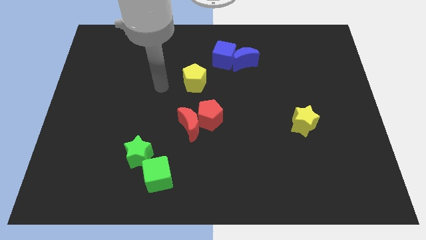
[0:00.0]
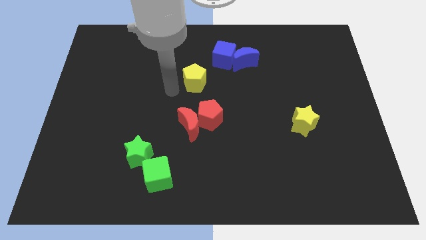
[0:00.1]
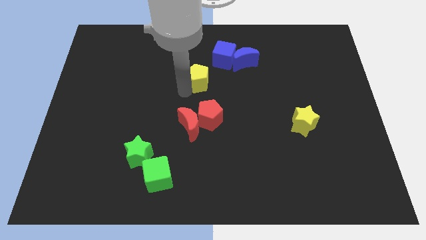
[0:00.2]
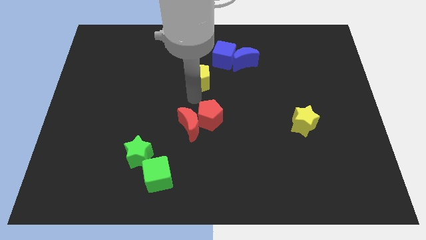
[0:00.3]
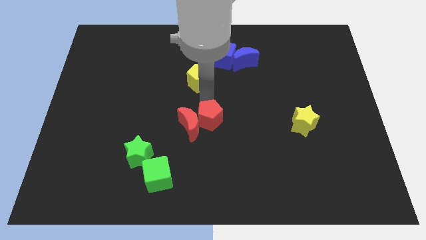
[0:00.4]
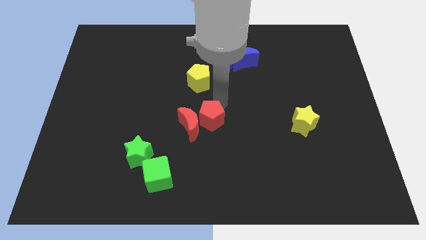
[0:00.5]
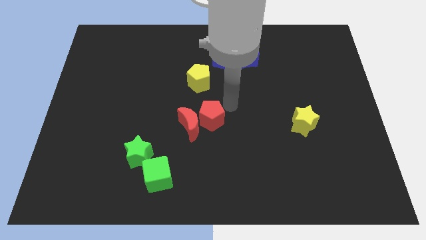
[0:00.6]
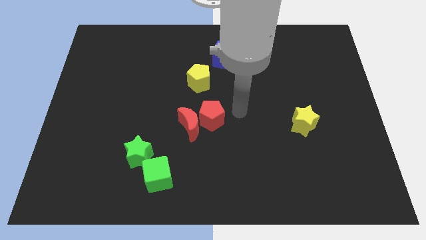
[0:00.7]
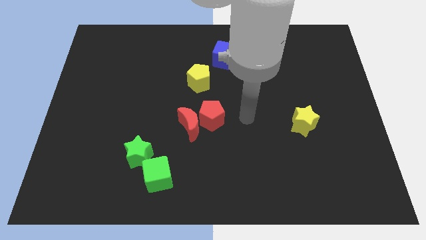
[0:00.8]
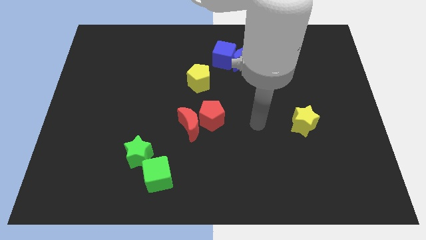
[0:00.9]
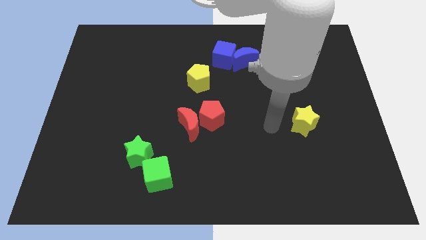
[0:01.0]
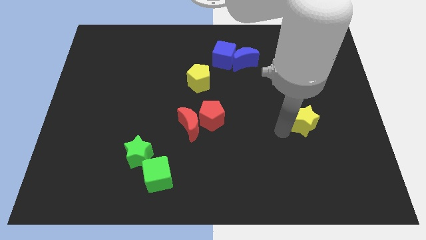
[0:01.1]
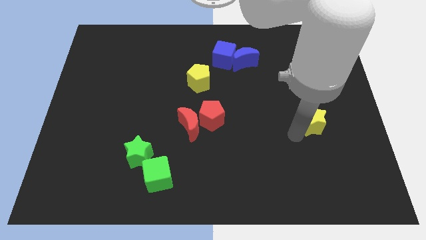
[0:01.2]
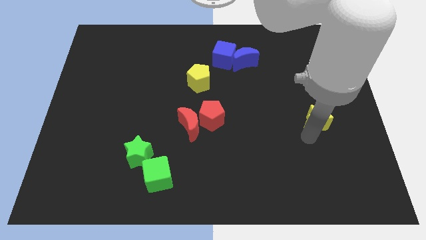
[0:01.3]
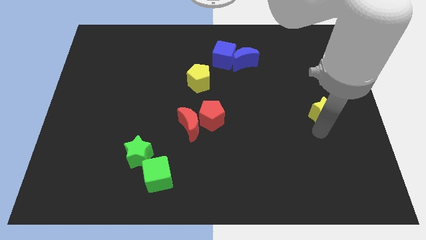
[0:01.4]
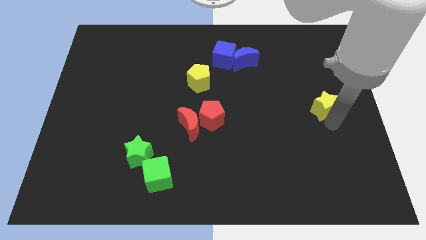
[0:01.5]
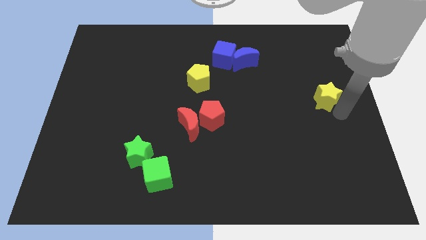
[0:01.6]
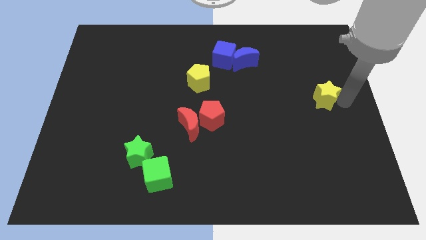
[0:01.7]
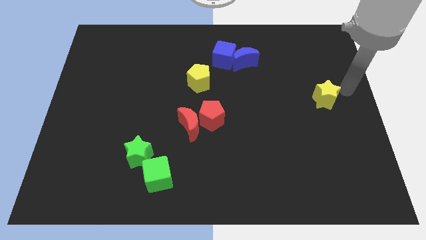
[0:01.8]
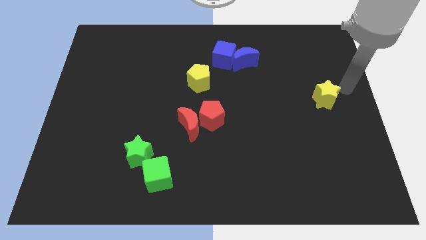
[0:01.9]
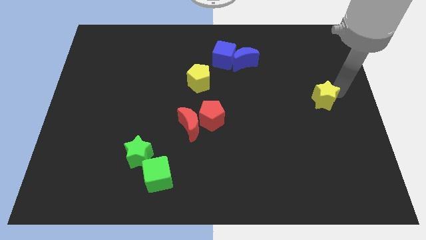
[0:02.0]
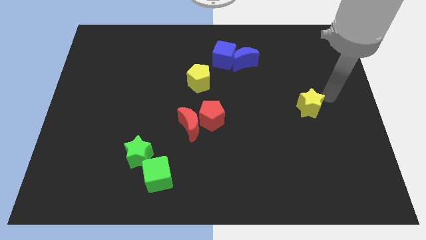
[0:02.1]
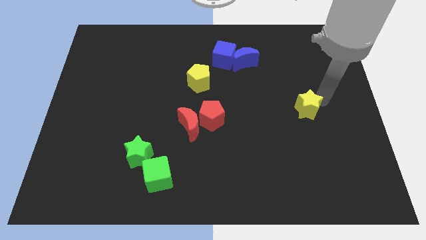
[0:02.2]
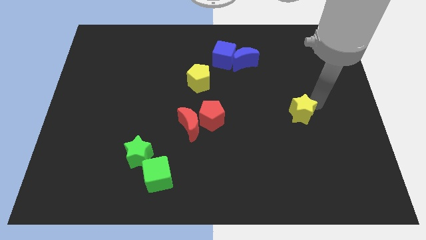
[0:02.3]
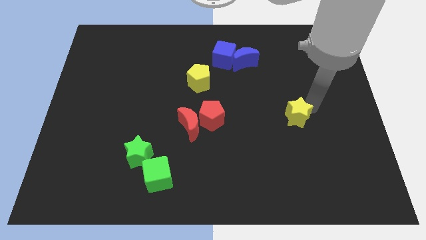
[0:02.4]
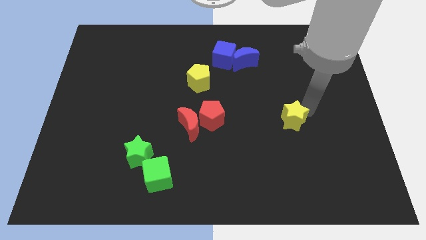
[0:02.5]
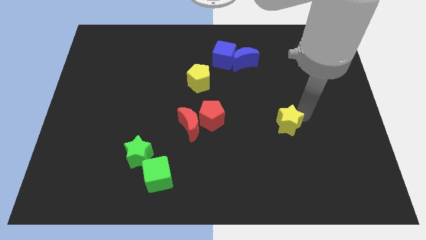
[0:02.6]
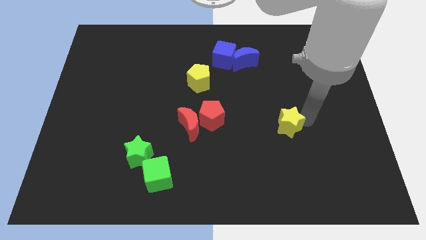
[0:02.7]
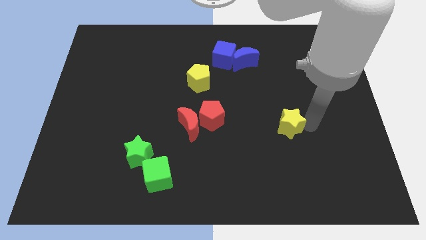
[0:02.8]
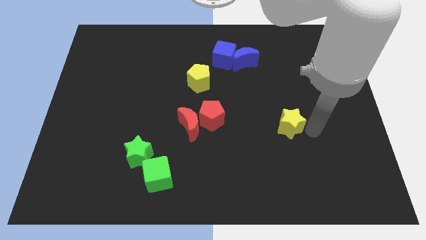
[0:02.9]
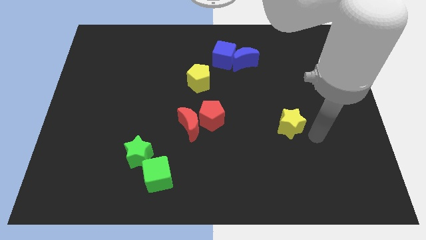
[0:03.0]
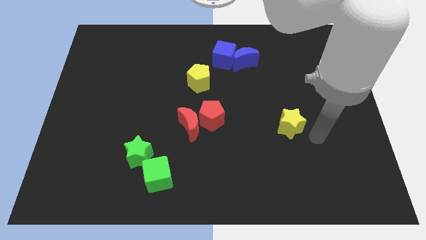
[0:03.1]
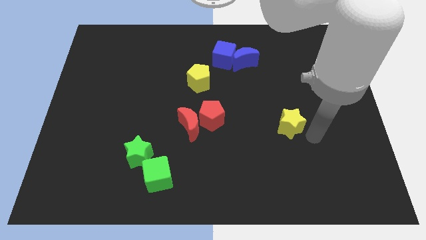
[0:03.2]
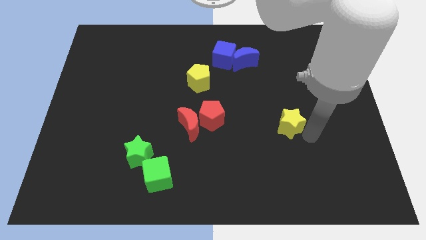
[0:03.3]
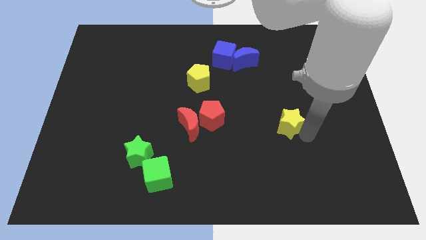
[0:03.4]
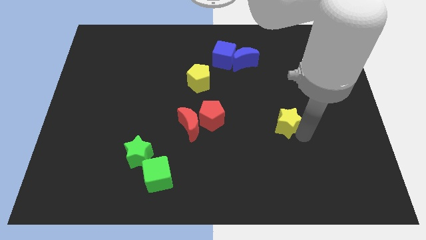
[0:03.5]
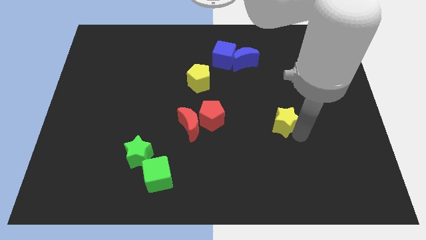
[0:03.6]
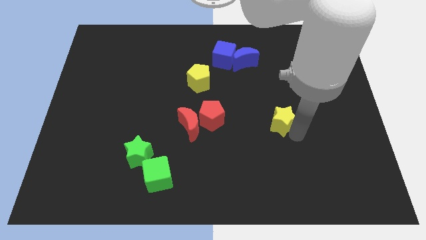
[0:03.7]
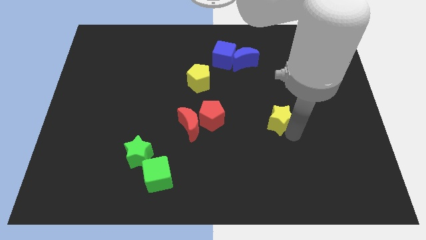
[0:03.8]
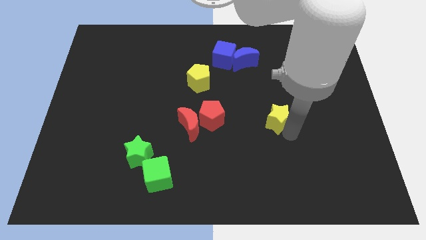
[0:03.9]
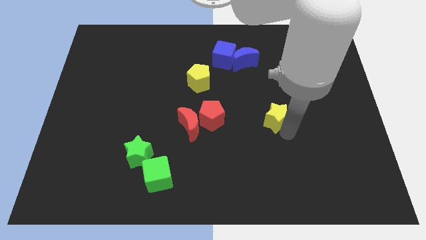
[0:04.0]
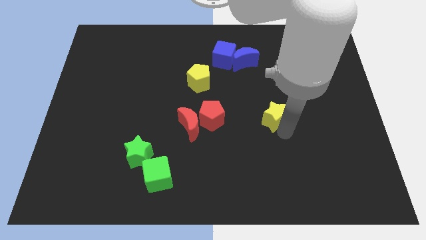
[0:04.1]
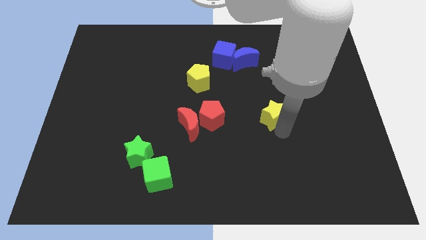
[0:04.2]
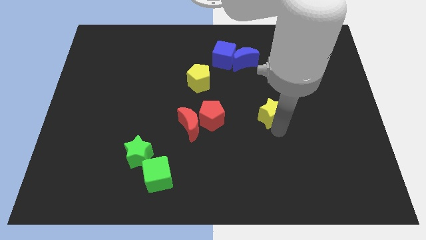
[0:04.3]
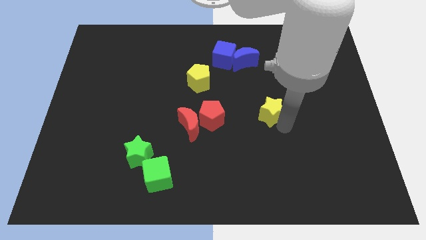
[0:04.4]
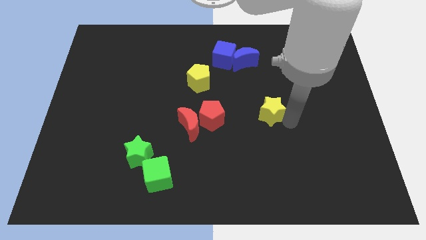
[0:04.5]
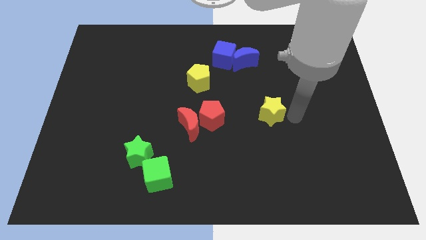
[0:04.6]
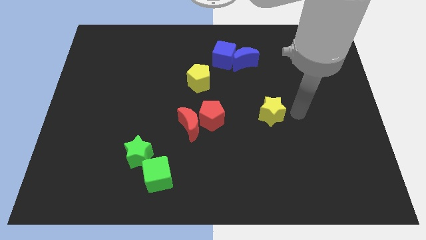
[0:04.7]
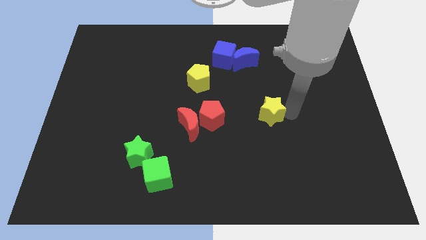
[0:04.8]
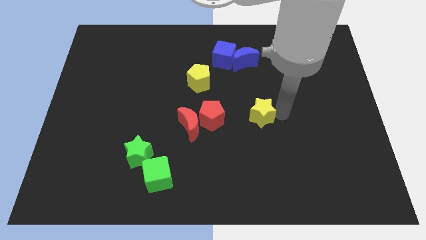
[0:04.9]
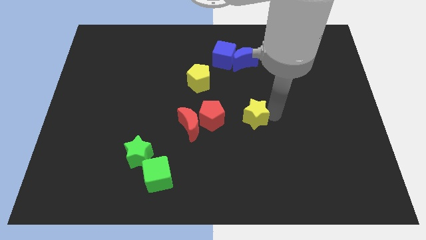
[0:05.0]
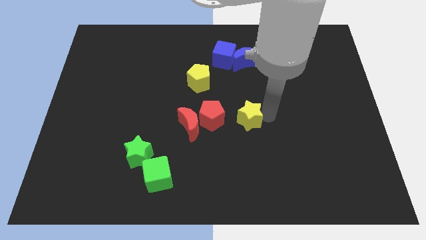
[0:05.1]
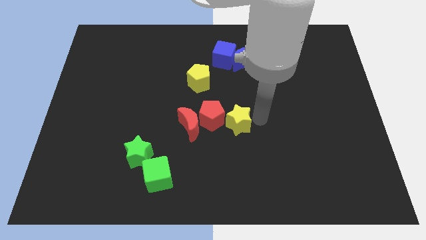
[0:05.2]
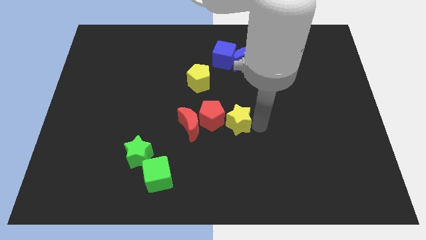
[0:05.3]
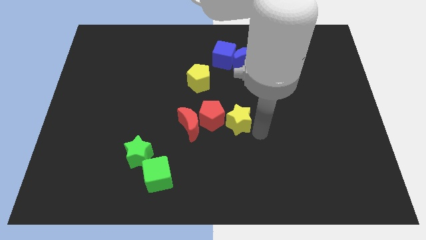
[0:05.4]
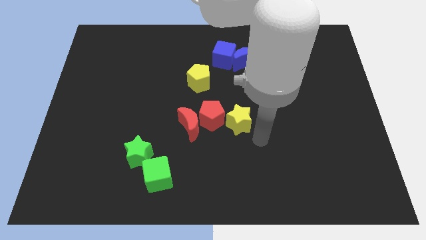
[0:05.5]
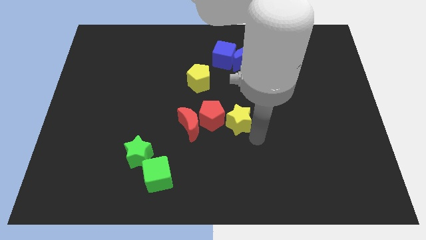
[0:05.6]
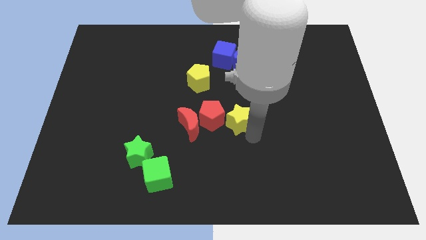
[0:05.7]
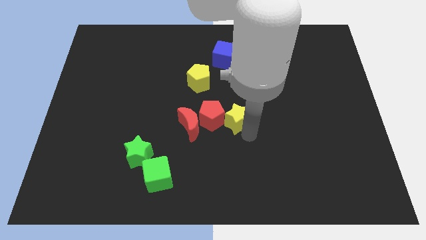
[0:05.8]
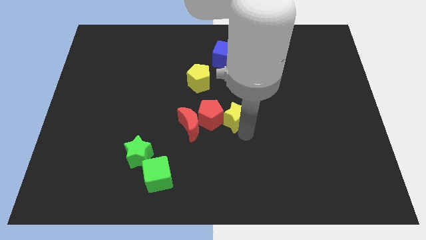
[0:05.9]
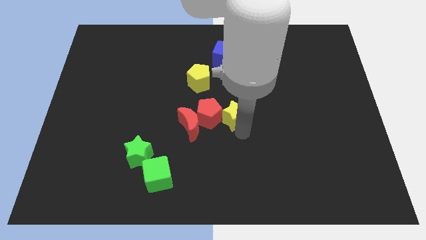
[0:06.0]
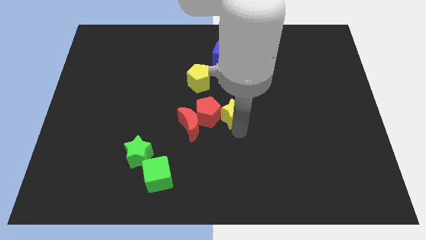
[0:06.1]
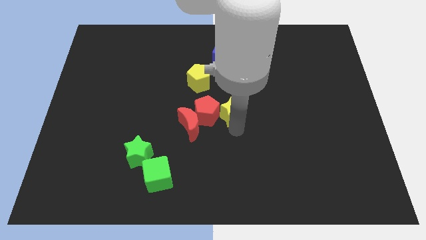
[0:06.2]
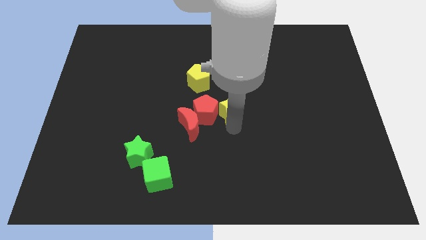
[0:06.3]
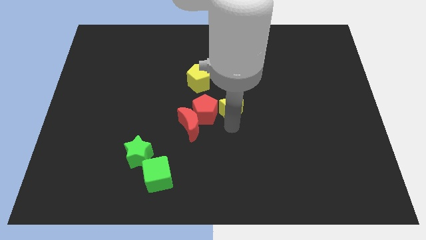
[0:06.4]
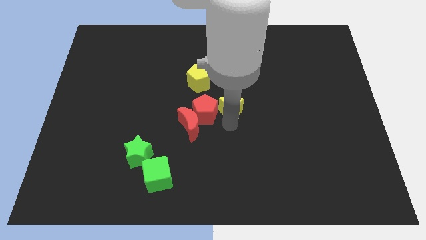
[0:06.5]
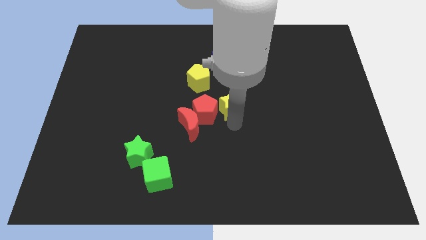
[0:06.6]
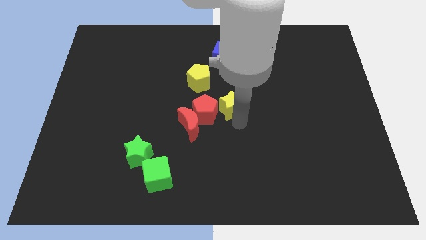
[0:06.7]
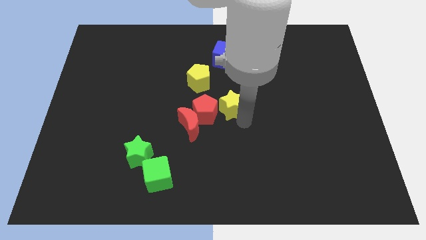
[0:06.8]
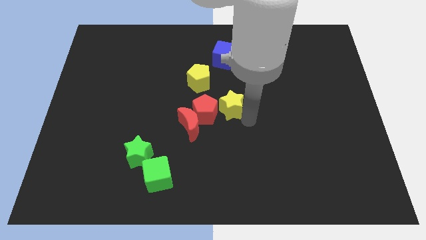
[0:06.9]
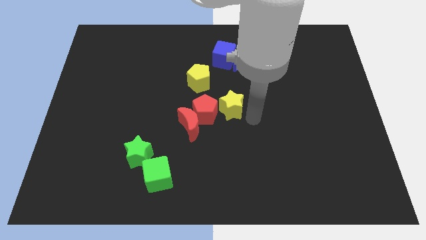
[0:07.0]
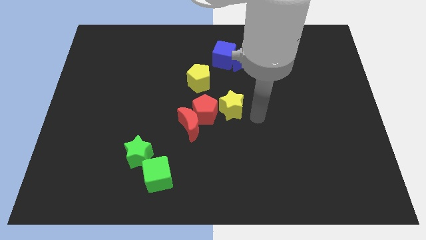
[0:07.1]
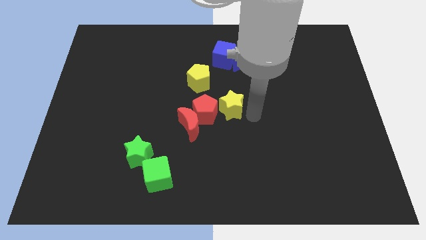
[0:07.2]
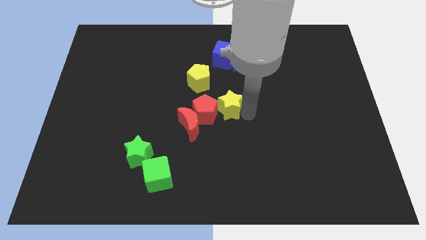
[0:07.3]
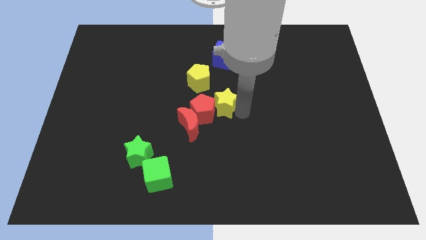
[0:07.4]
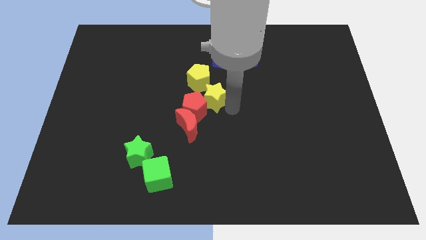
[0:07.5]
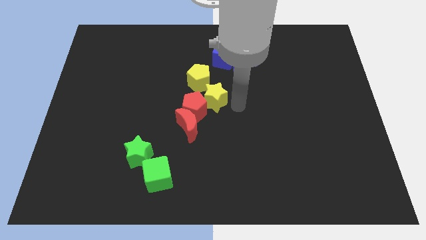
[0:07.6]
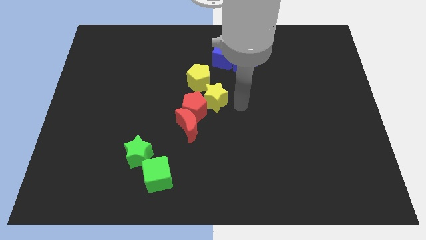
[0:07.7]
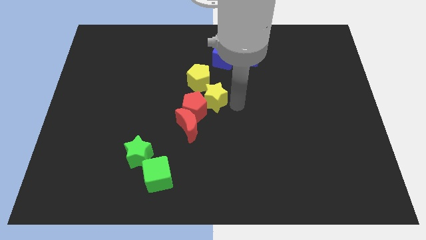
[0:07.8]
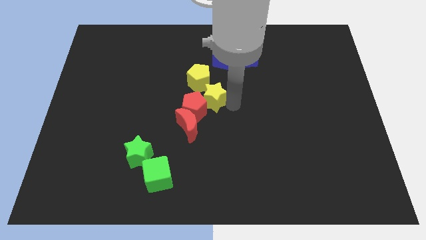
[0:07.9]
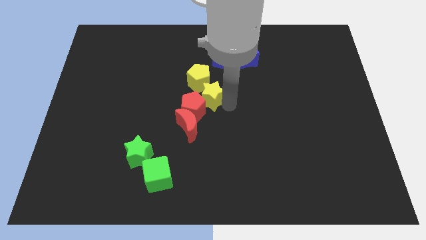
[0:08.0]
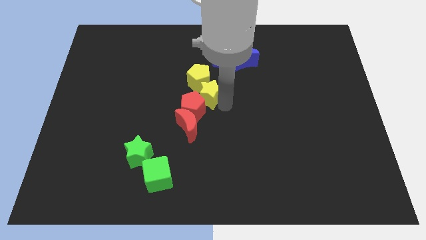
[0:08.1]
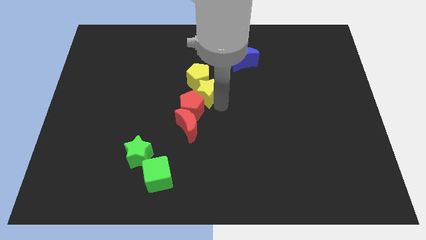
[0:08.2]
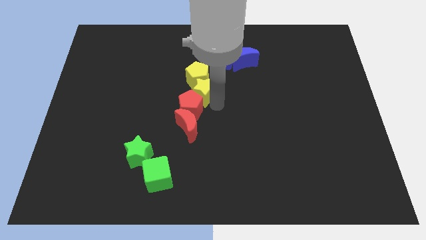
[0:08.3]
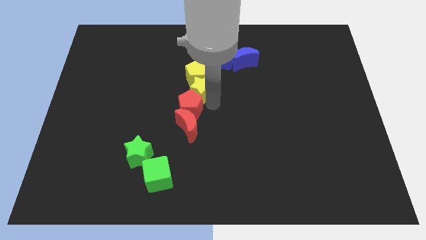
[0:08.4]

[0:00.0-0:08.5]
move the yellow star to the top left side of the red pentagon
